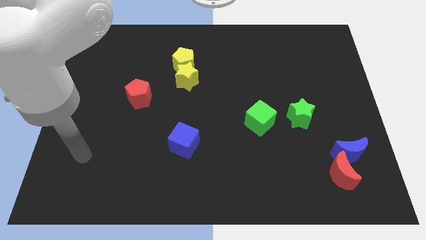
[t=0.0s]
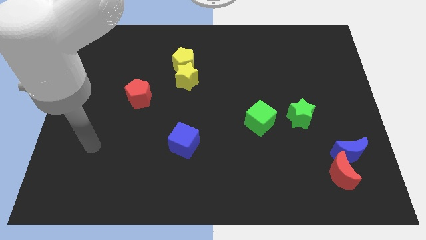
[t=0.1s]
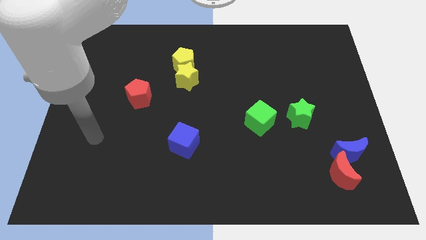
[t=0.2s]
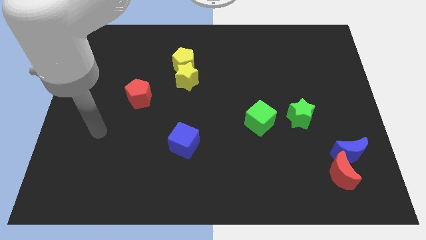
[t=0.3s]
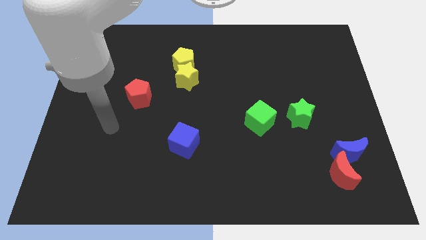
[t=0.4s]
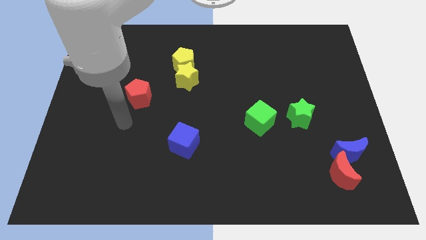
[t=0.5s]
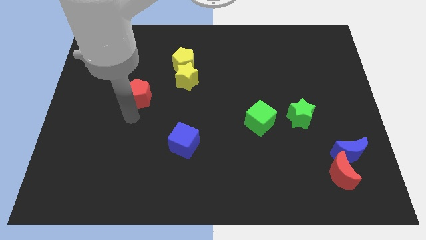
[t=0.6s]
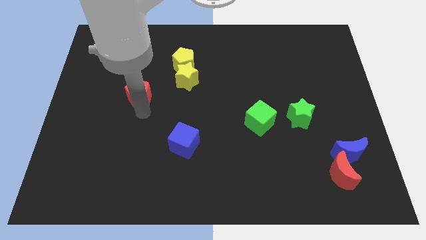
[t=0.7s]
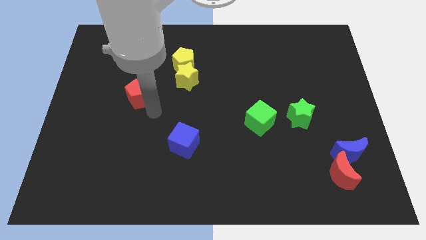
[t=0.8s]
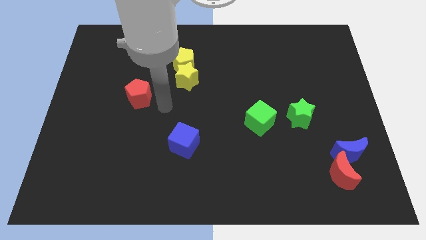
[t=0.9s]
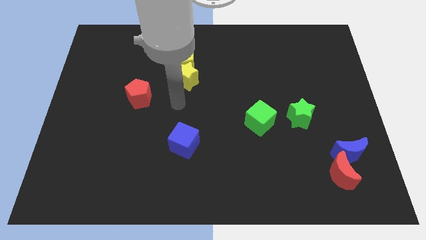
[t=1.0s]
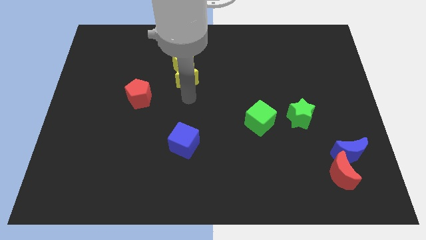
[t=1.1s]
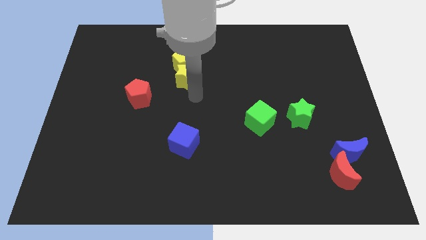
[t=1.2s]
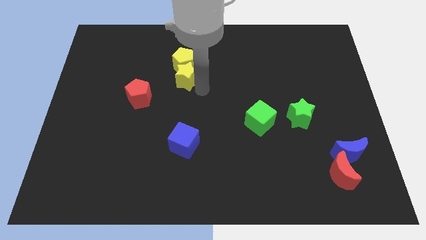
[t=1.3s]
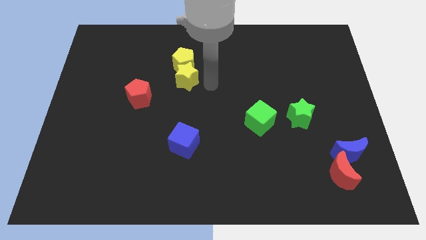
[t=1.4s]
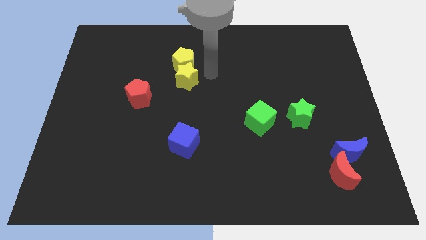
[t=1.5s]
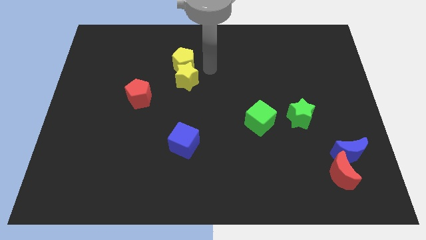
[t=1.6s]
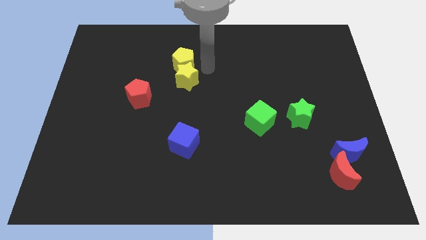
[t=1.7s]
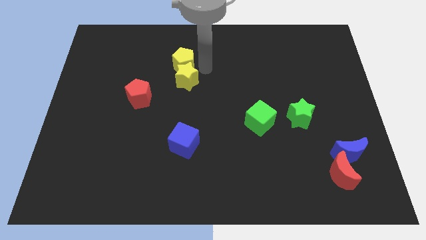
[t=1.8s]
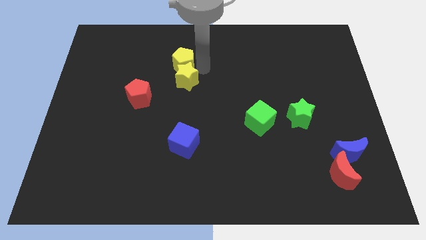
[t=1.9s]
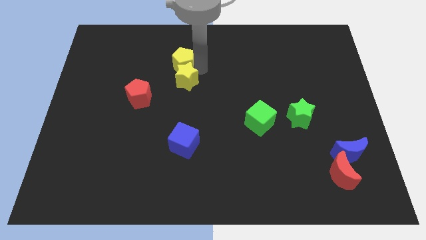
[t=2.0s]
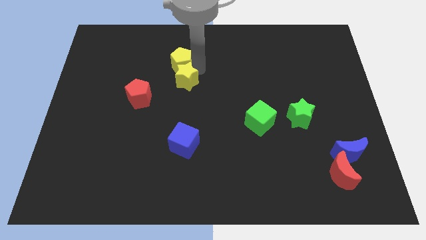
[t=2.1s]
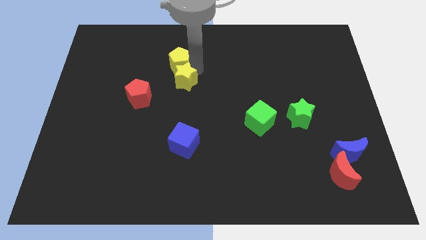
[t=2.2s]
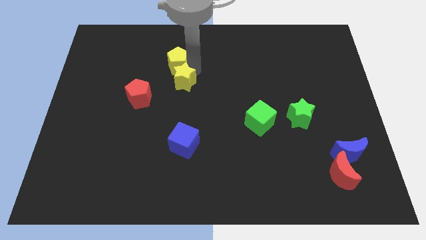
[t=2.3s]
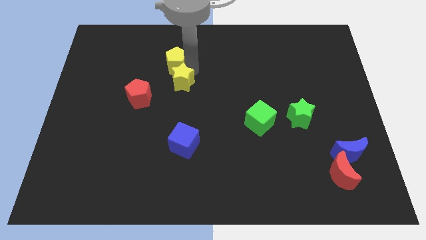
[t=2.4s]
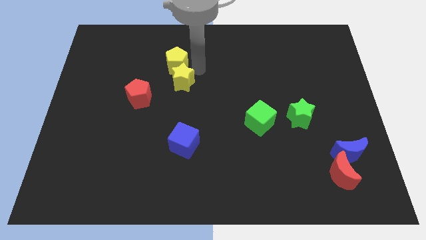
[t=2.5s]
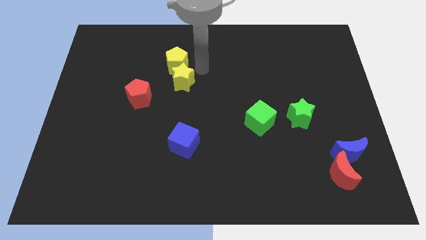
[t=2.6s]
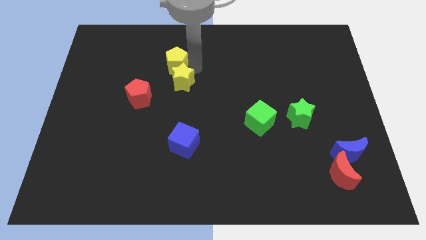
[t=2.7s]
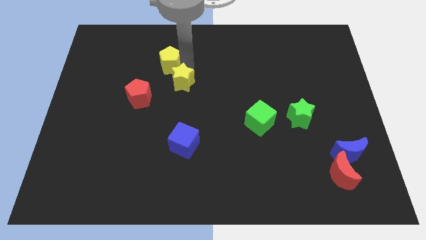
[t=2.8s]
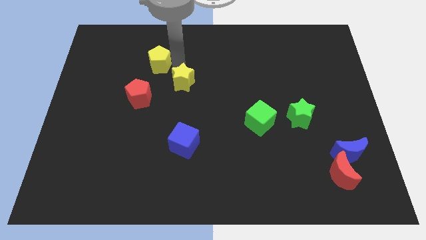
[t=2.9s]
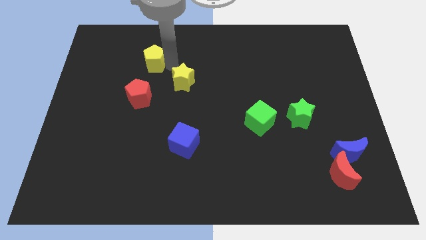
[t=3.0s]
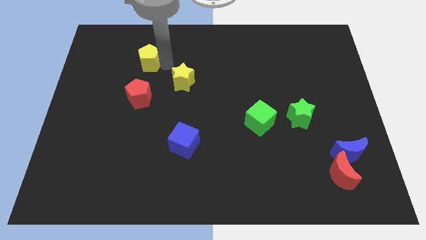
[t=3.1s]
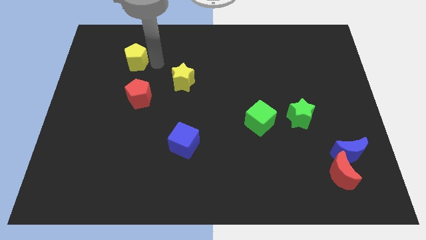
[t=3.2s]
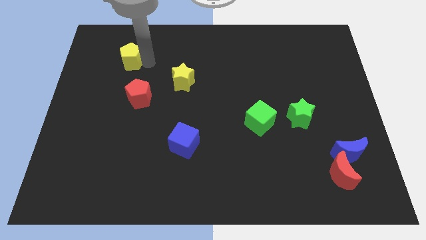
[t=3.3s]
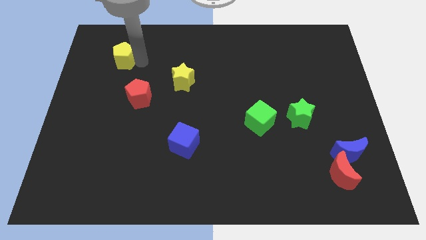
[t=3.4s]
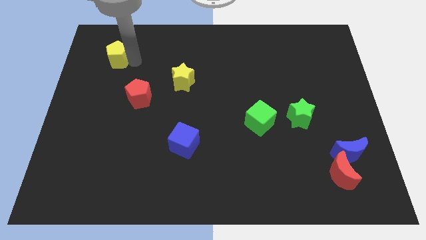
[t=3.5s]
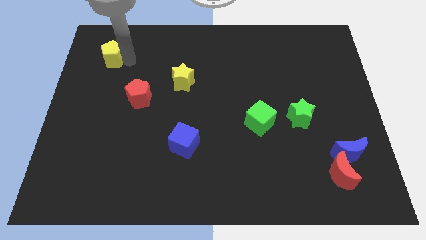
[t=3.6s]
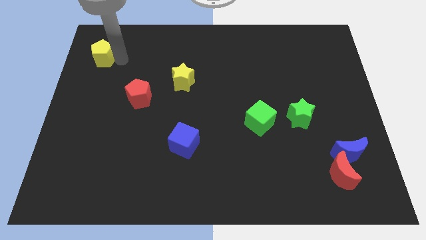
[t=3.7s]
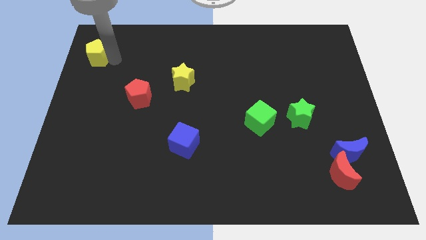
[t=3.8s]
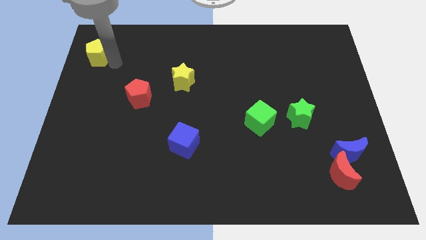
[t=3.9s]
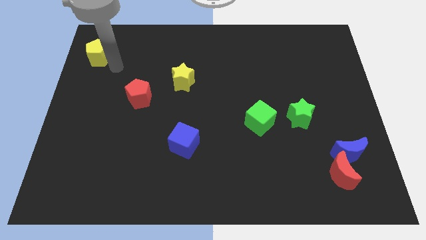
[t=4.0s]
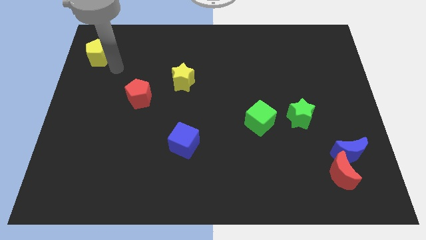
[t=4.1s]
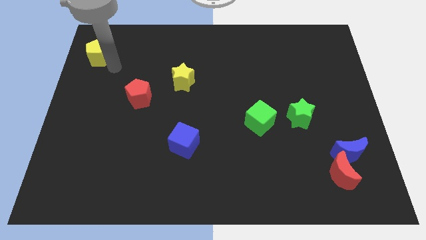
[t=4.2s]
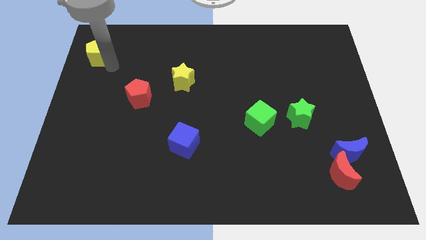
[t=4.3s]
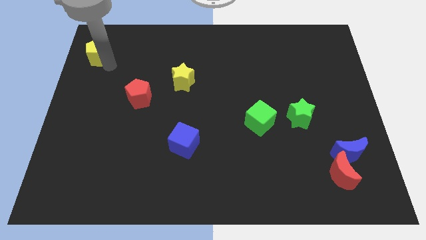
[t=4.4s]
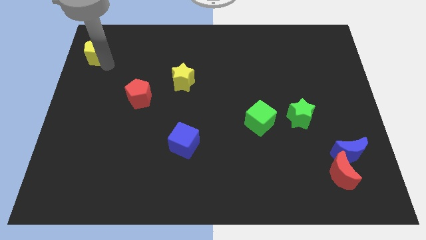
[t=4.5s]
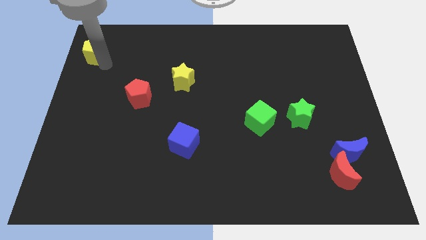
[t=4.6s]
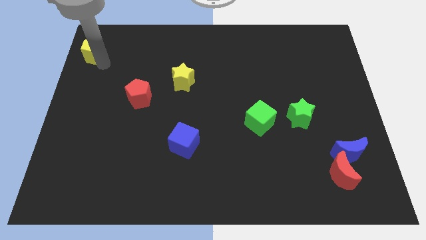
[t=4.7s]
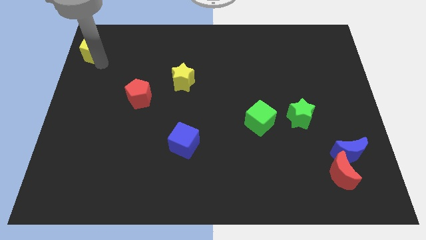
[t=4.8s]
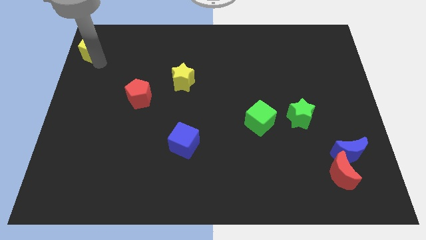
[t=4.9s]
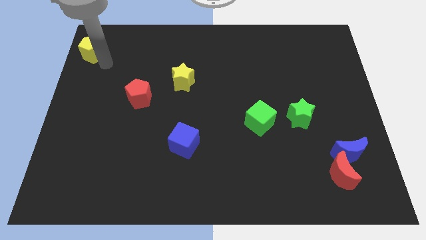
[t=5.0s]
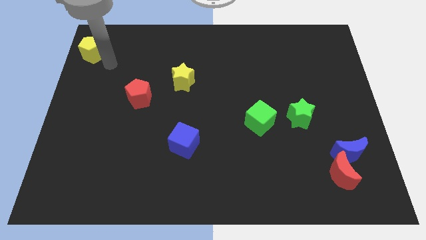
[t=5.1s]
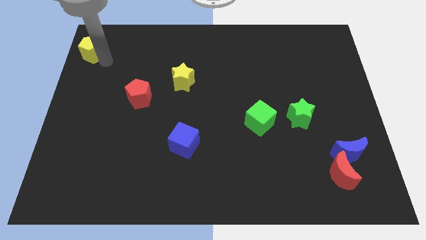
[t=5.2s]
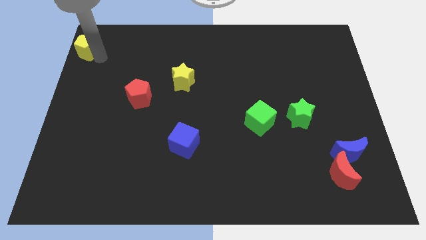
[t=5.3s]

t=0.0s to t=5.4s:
slide the yellow pentagon to the upper left corner

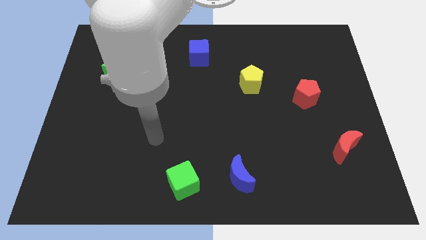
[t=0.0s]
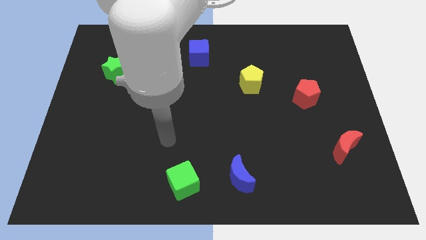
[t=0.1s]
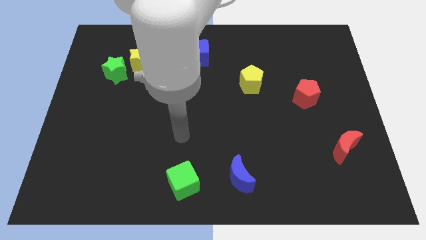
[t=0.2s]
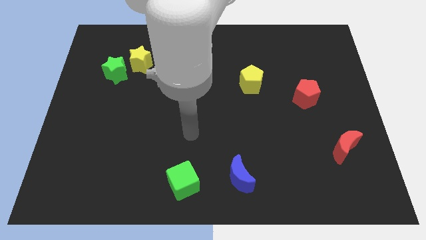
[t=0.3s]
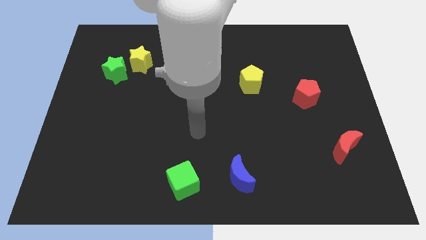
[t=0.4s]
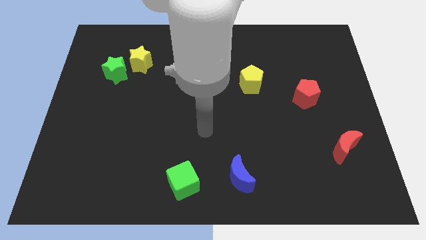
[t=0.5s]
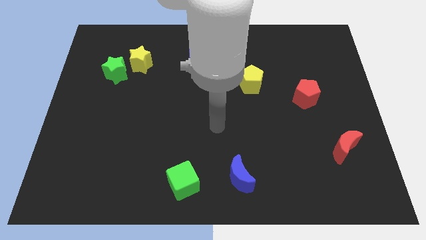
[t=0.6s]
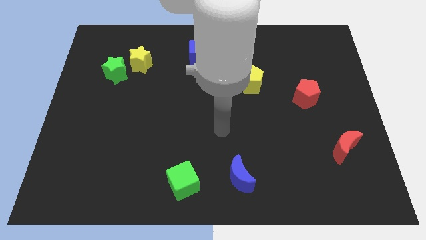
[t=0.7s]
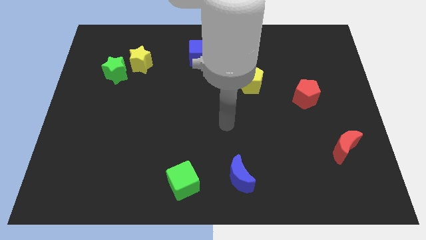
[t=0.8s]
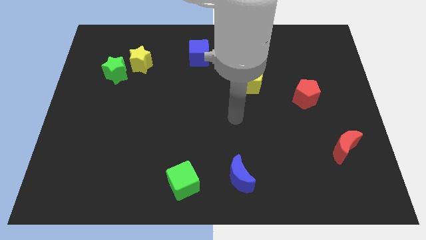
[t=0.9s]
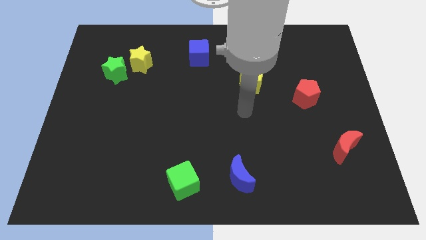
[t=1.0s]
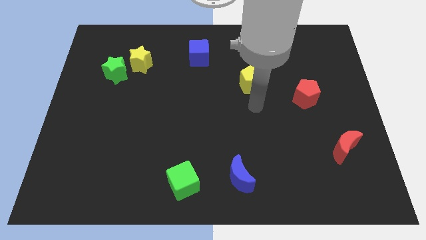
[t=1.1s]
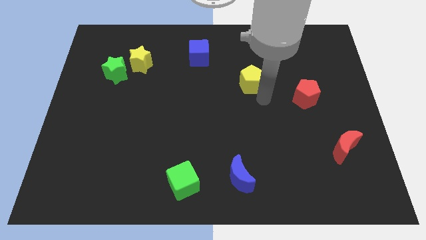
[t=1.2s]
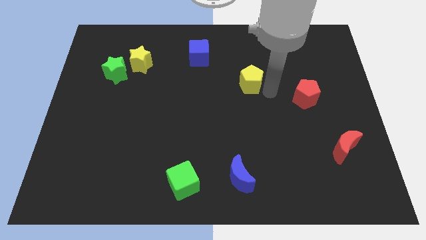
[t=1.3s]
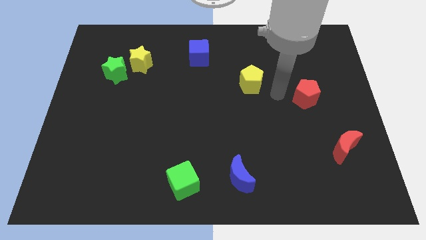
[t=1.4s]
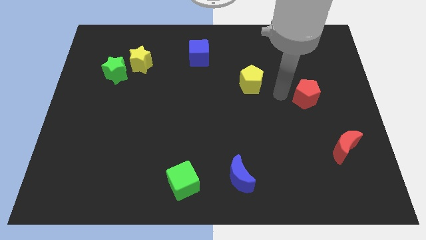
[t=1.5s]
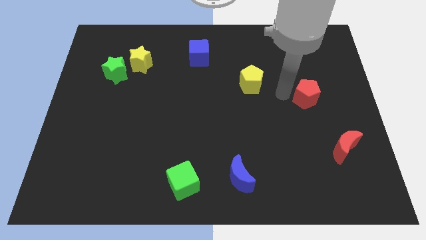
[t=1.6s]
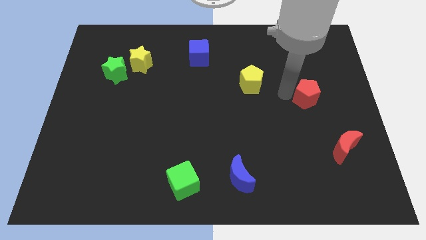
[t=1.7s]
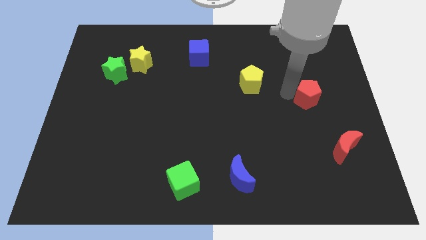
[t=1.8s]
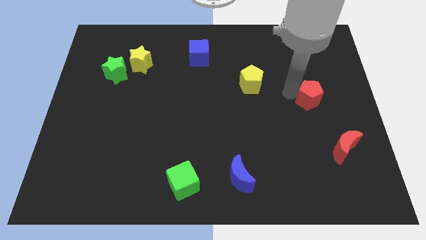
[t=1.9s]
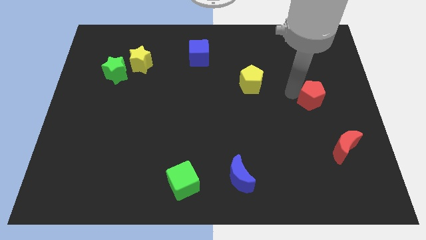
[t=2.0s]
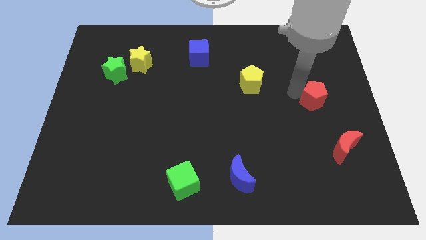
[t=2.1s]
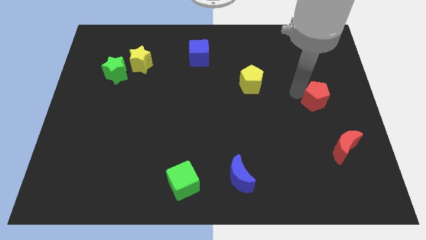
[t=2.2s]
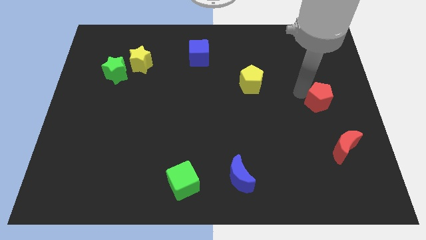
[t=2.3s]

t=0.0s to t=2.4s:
move the red pentagon to the right side of the board
